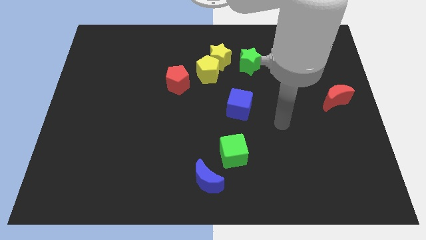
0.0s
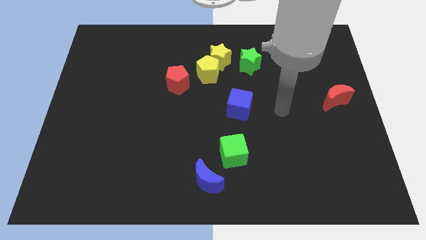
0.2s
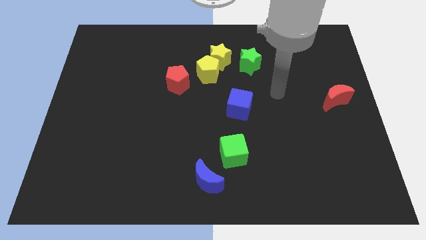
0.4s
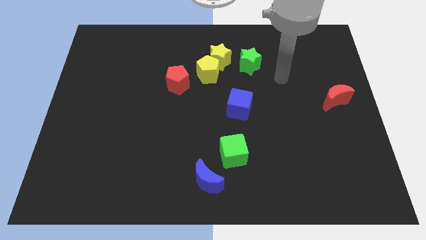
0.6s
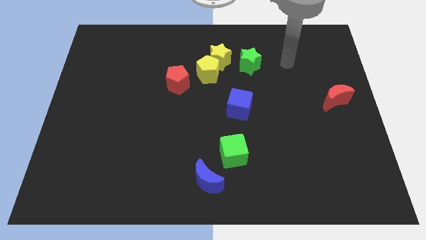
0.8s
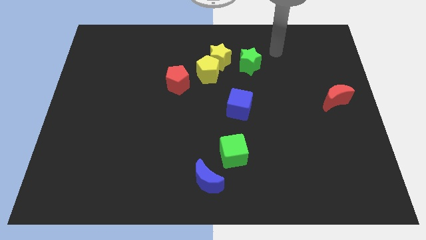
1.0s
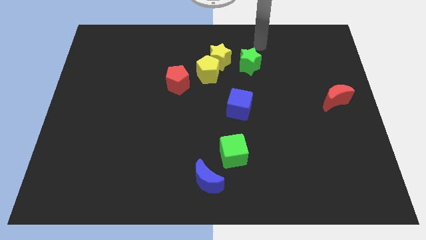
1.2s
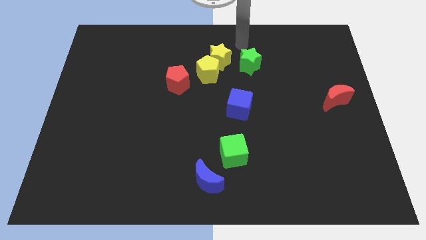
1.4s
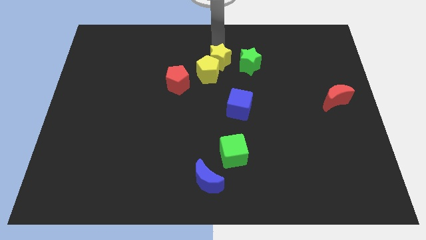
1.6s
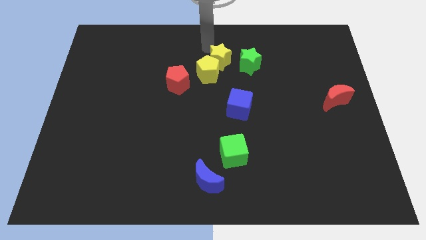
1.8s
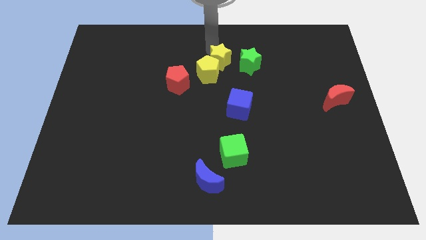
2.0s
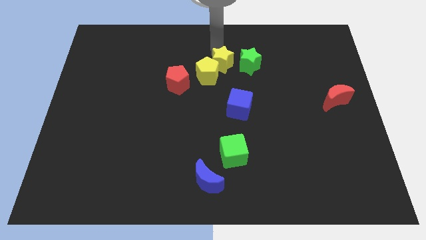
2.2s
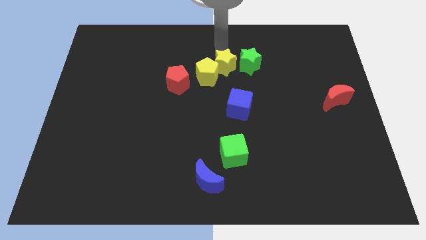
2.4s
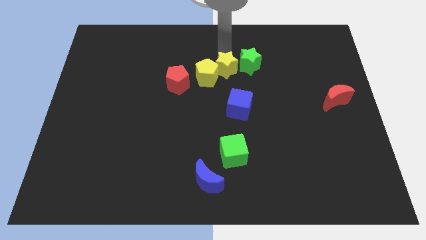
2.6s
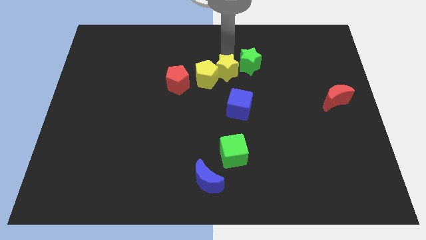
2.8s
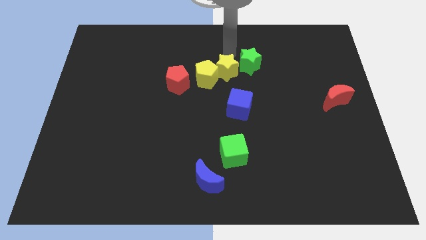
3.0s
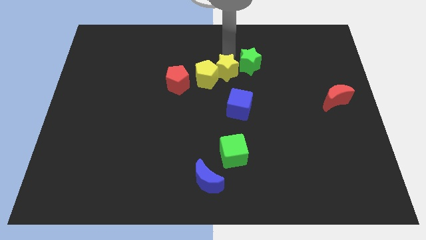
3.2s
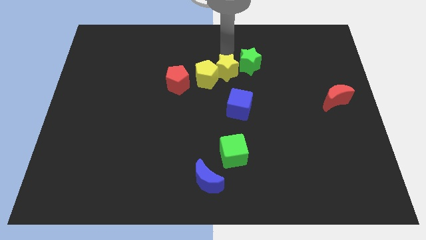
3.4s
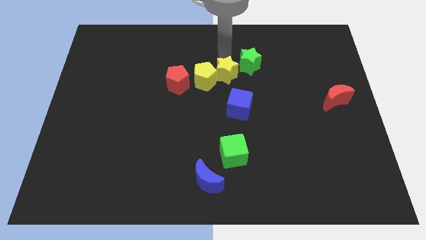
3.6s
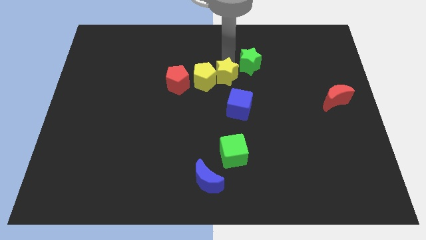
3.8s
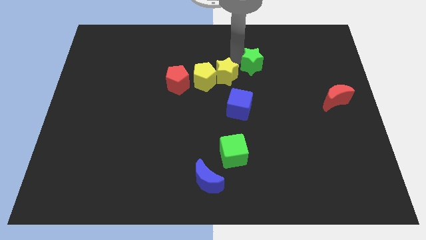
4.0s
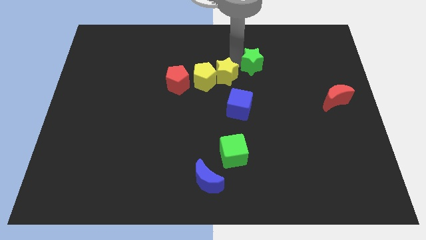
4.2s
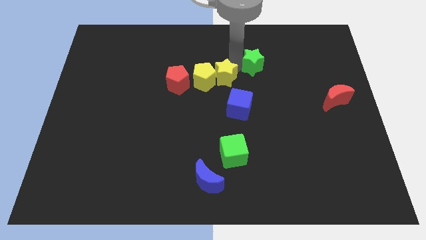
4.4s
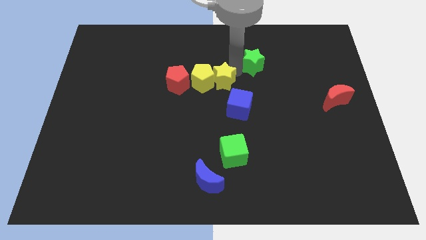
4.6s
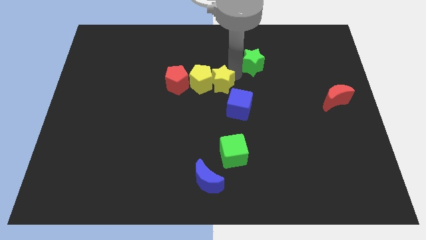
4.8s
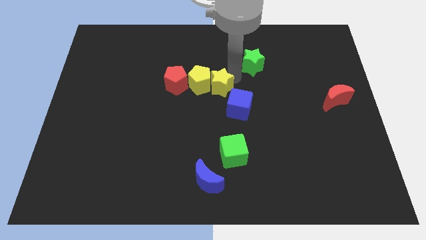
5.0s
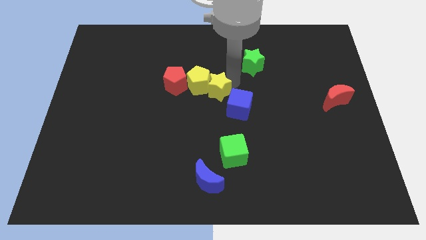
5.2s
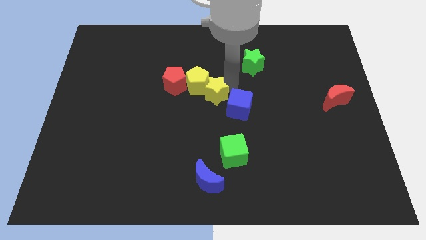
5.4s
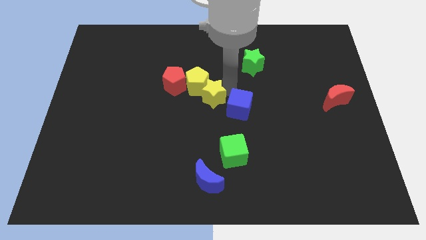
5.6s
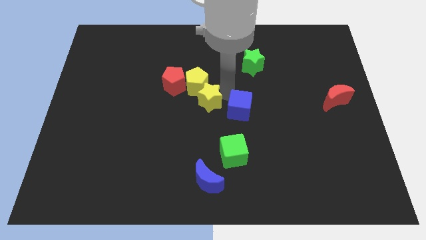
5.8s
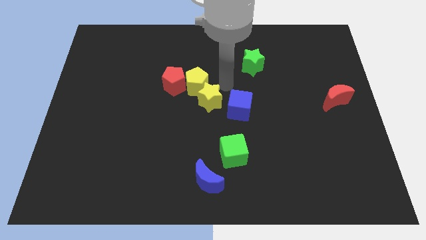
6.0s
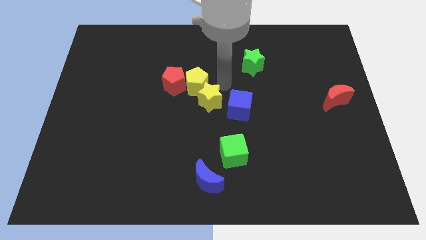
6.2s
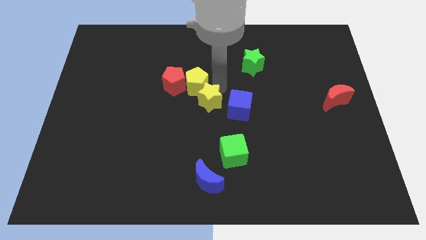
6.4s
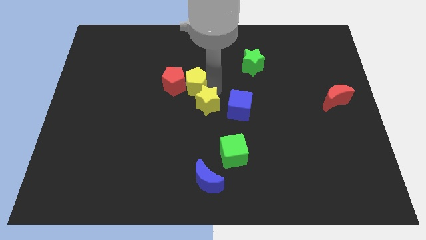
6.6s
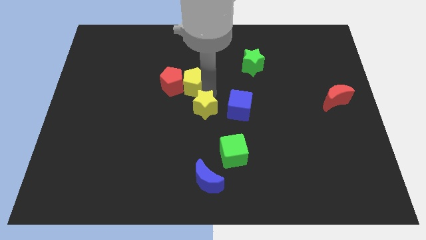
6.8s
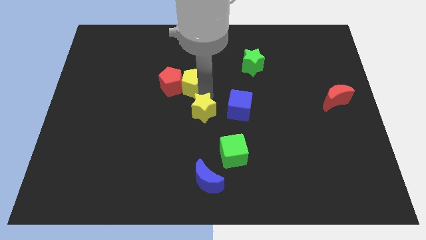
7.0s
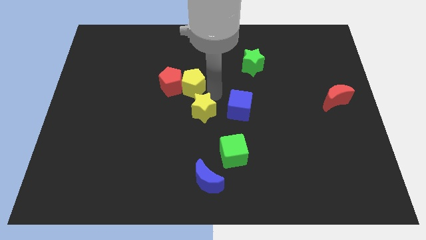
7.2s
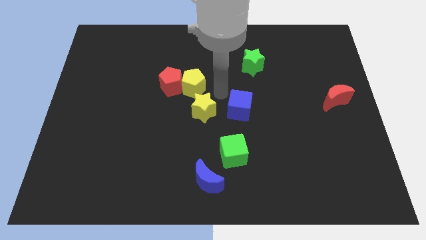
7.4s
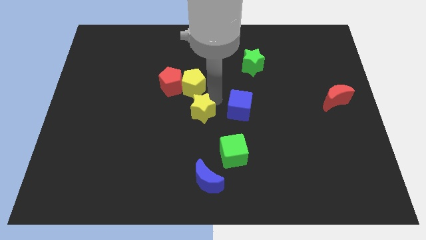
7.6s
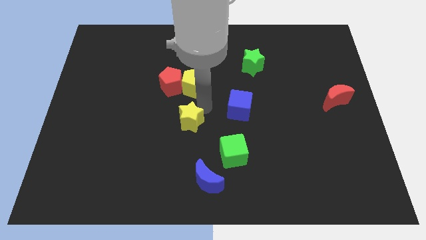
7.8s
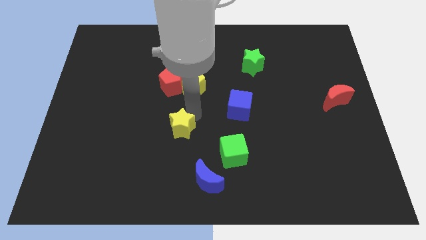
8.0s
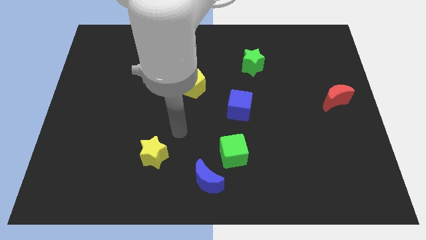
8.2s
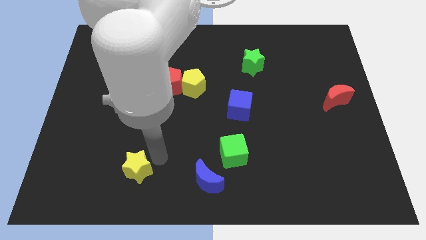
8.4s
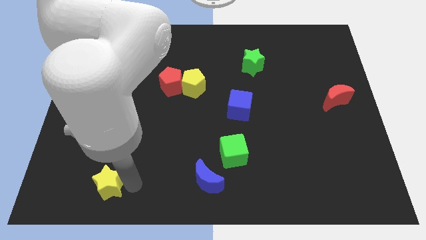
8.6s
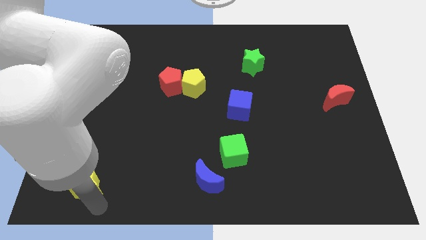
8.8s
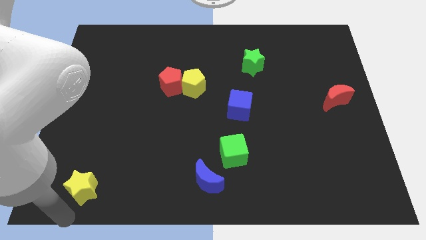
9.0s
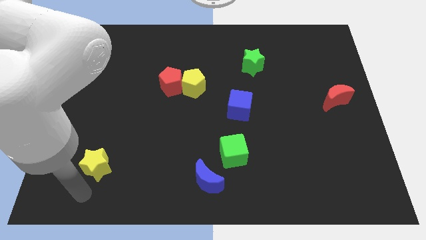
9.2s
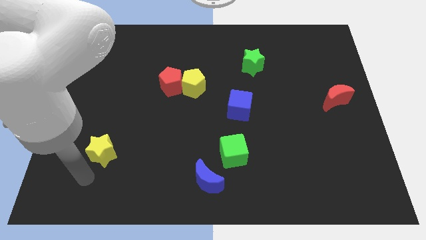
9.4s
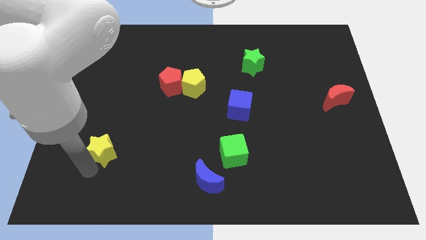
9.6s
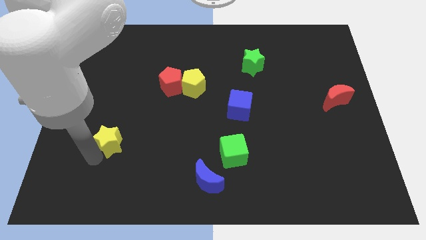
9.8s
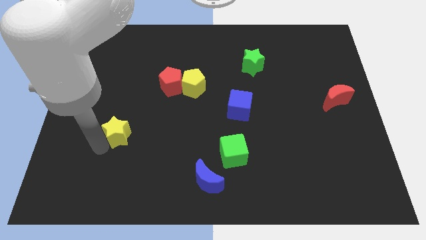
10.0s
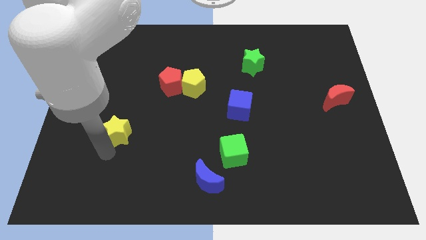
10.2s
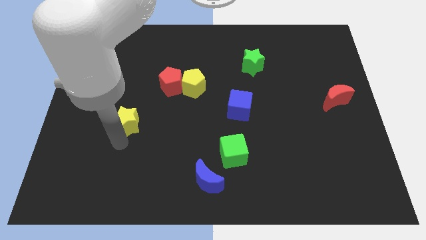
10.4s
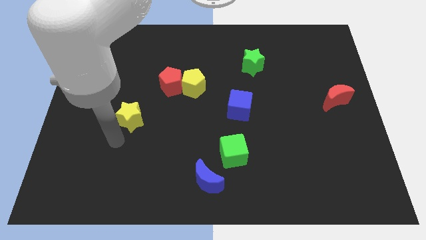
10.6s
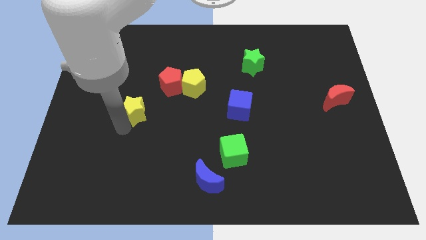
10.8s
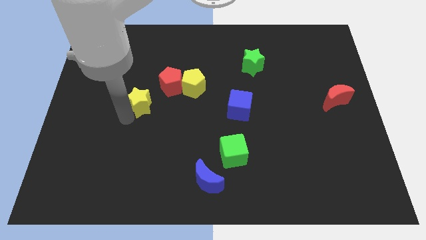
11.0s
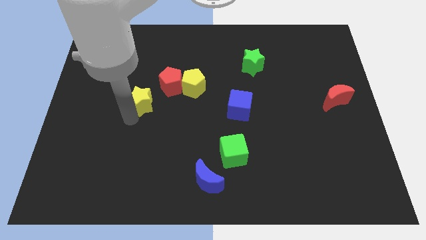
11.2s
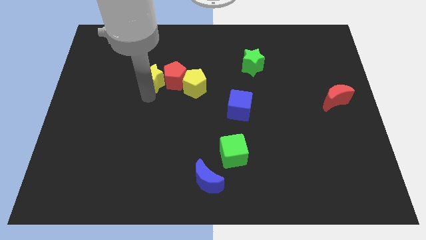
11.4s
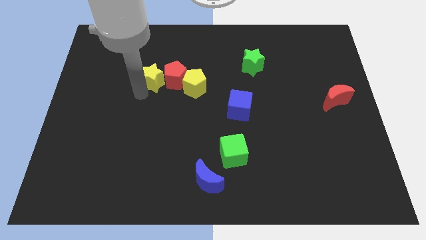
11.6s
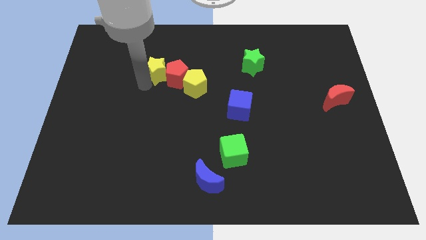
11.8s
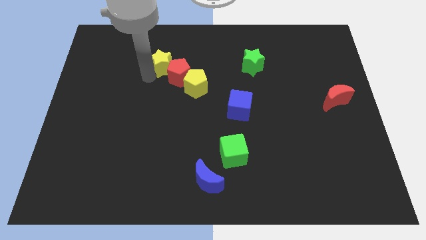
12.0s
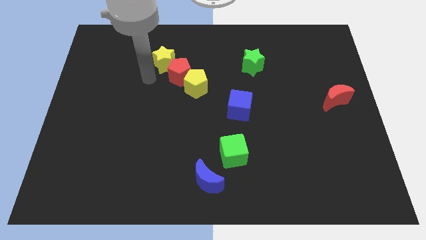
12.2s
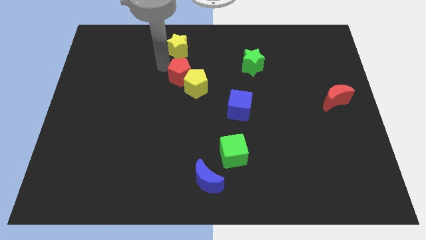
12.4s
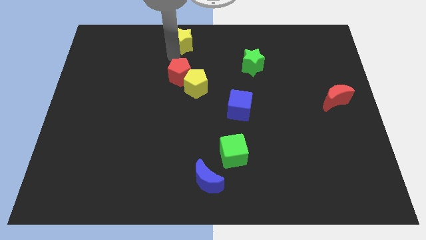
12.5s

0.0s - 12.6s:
push the yellow star to the towards your base
